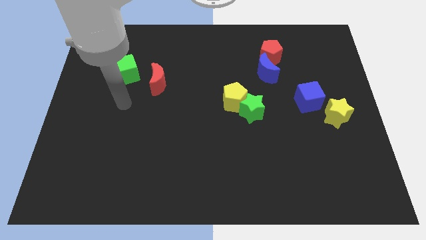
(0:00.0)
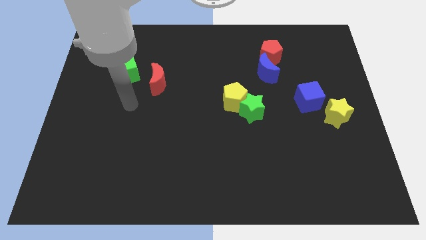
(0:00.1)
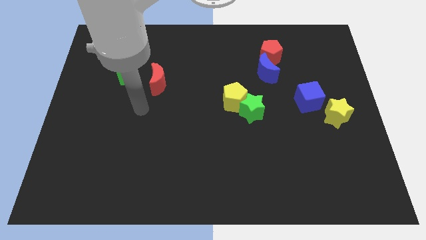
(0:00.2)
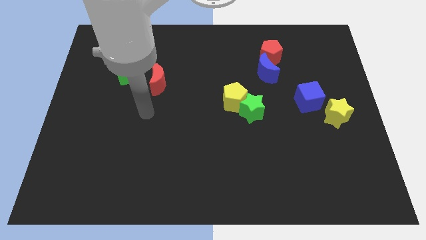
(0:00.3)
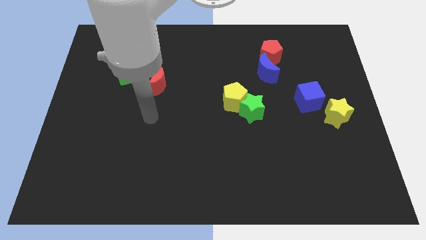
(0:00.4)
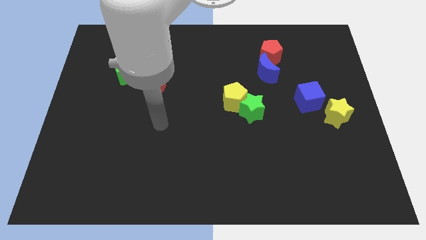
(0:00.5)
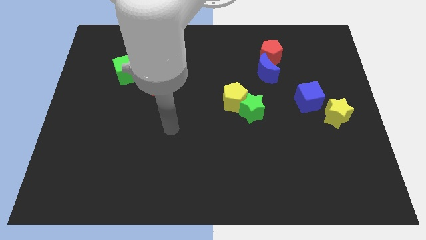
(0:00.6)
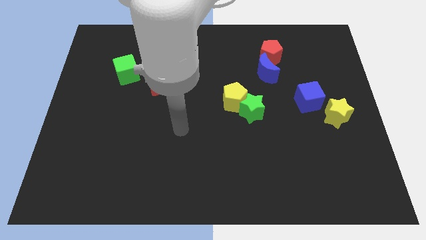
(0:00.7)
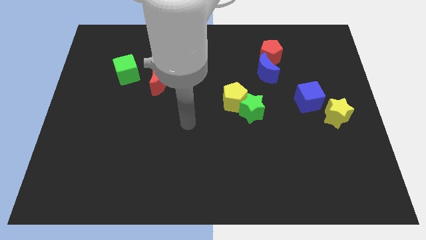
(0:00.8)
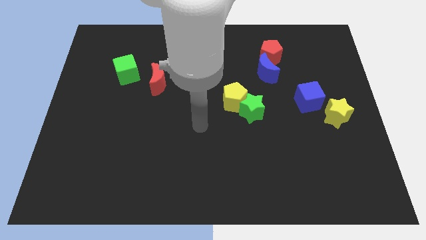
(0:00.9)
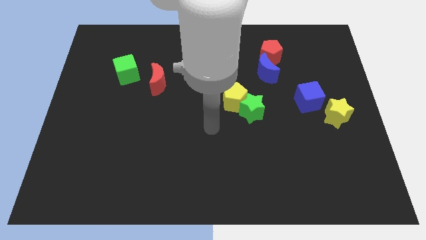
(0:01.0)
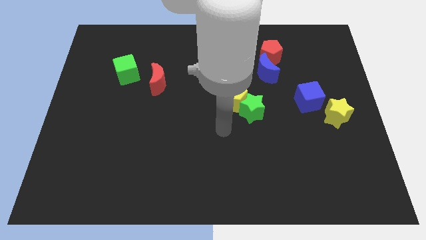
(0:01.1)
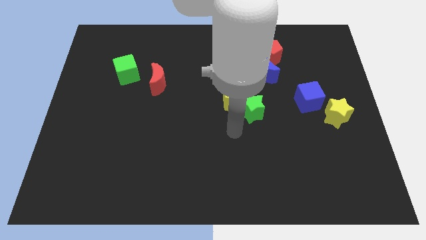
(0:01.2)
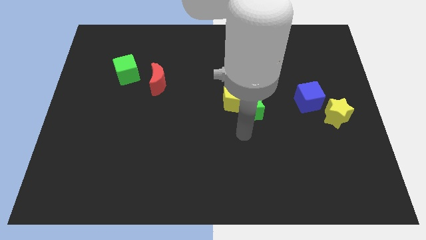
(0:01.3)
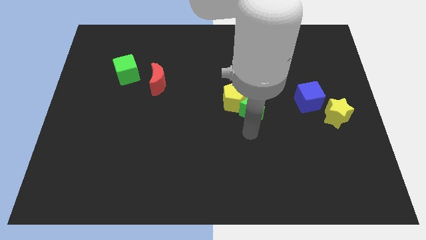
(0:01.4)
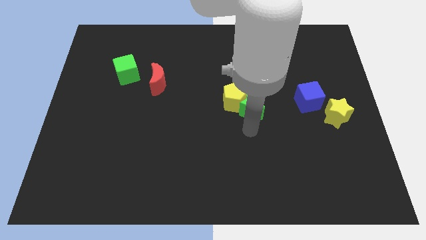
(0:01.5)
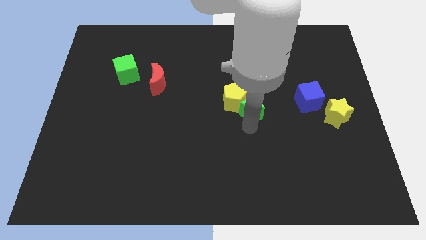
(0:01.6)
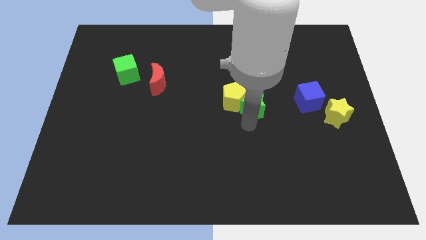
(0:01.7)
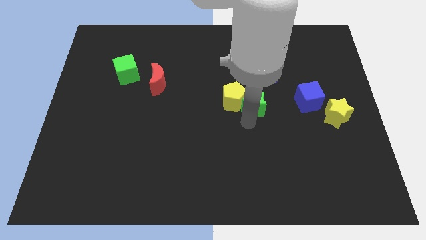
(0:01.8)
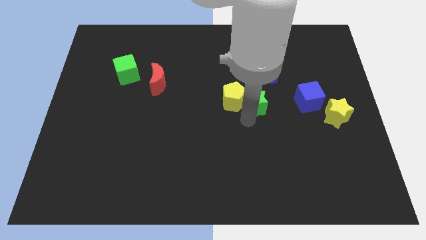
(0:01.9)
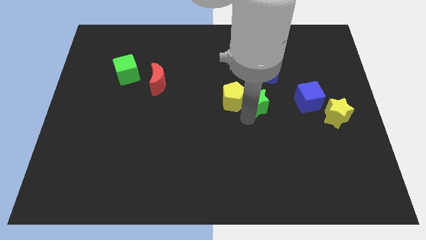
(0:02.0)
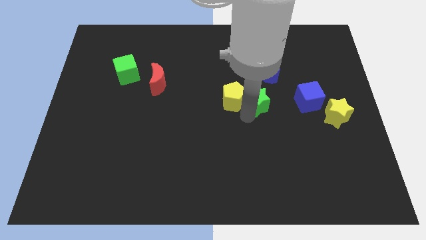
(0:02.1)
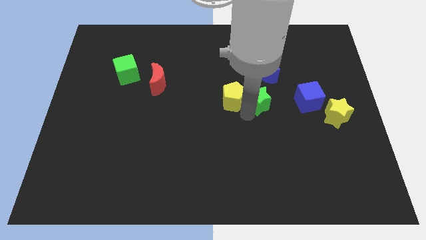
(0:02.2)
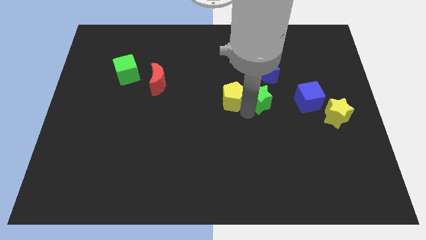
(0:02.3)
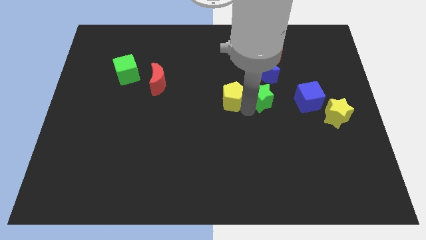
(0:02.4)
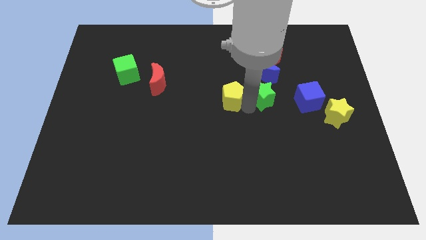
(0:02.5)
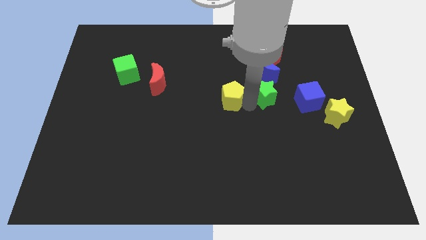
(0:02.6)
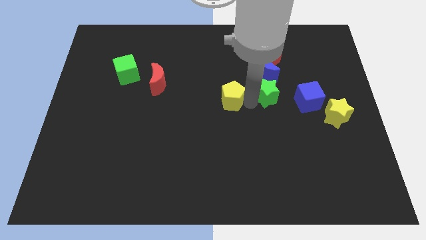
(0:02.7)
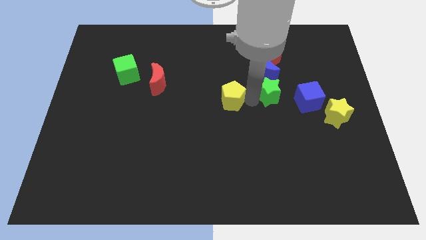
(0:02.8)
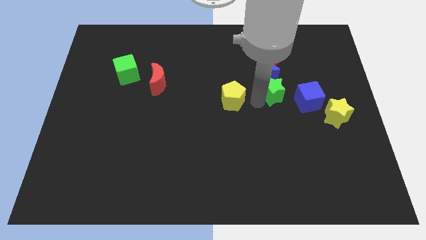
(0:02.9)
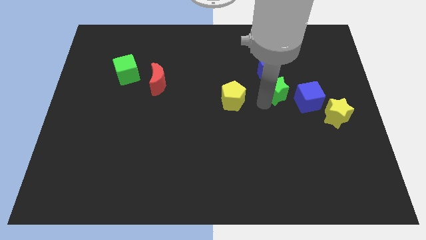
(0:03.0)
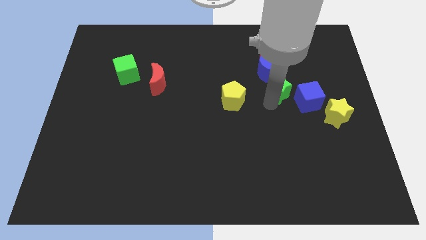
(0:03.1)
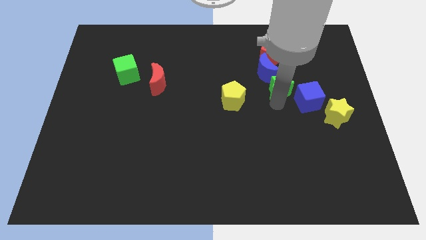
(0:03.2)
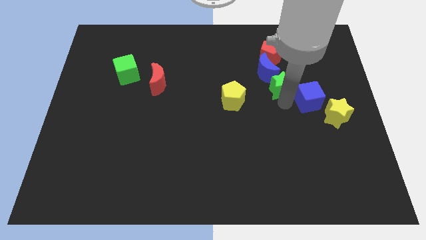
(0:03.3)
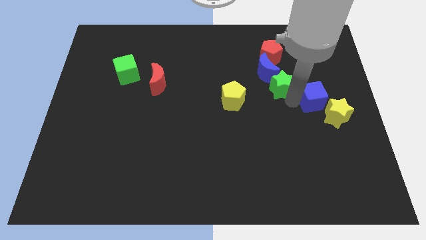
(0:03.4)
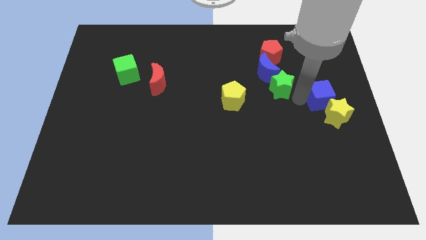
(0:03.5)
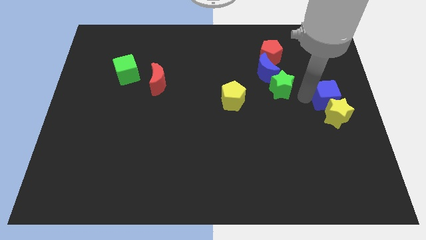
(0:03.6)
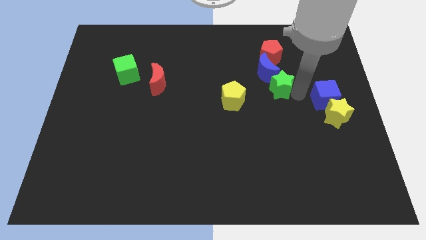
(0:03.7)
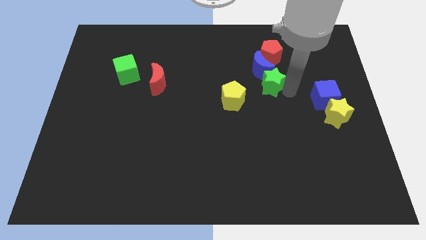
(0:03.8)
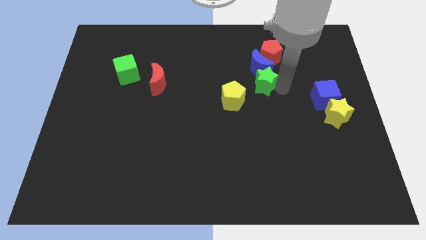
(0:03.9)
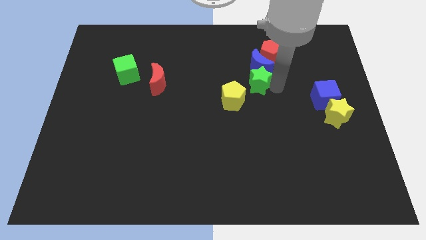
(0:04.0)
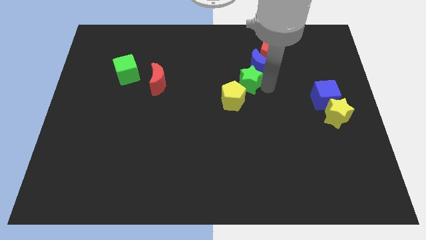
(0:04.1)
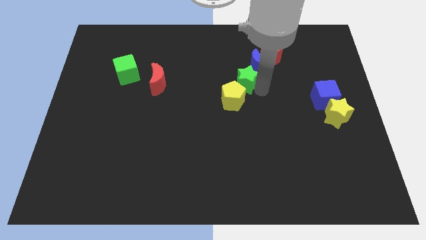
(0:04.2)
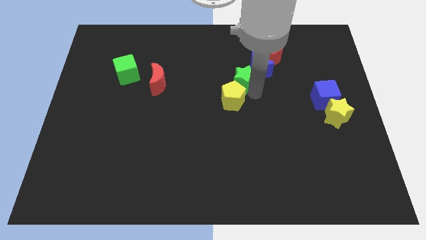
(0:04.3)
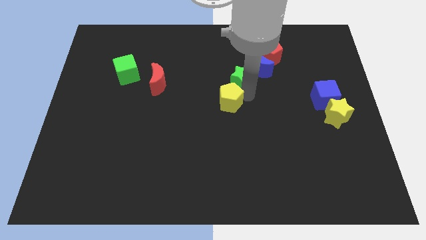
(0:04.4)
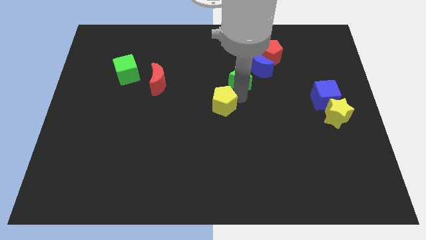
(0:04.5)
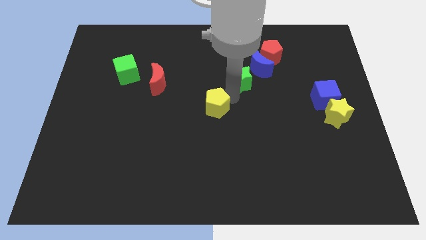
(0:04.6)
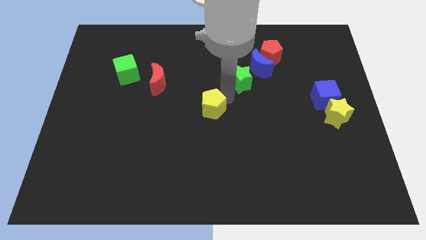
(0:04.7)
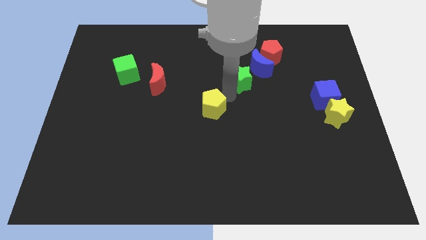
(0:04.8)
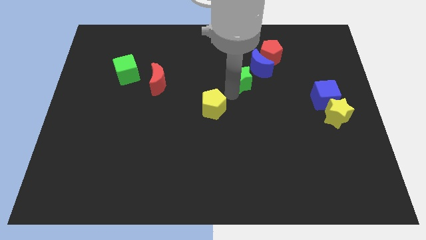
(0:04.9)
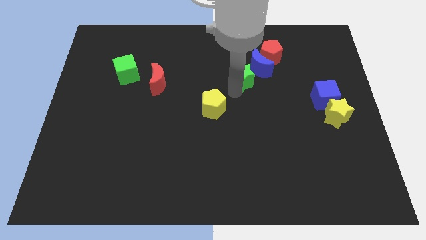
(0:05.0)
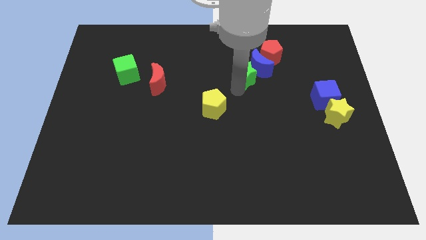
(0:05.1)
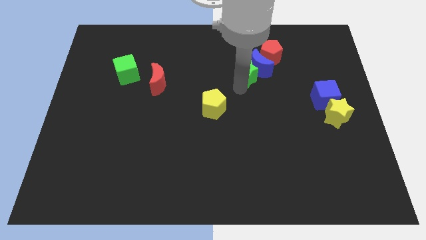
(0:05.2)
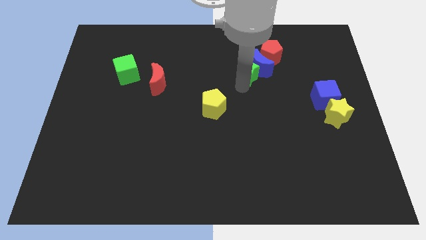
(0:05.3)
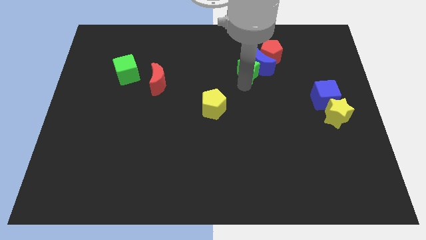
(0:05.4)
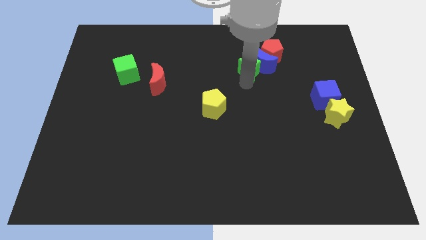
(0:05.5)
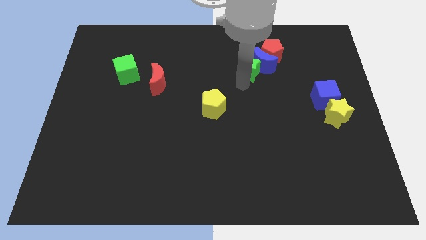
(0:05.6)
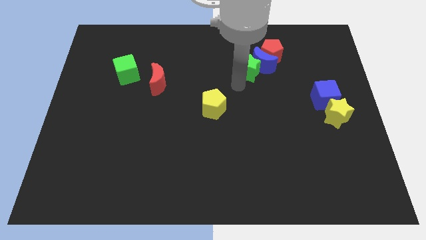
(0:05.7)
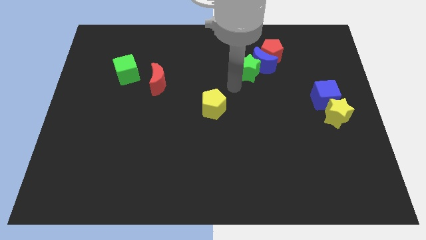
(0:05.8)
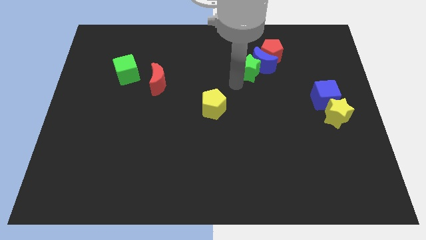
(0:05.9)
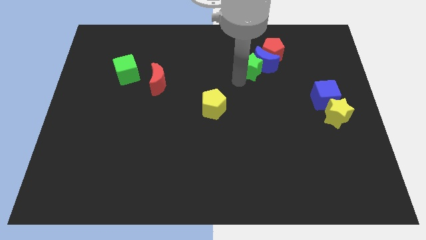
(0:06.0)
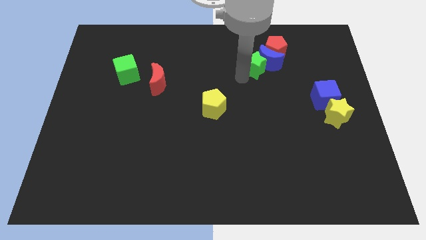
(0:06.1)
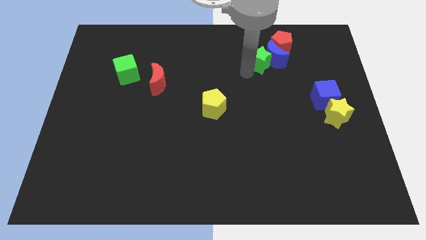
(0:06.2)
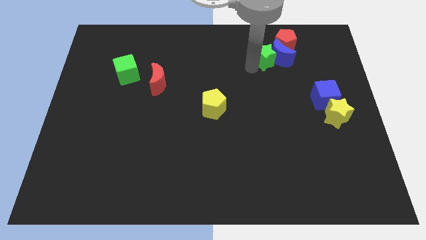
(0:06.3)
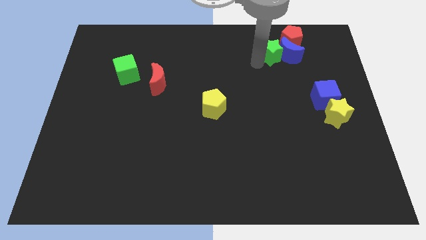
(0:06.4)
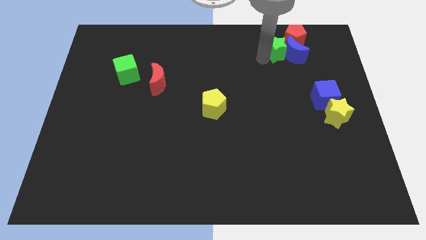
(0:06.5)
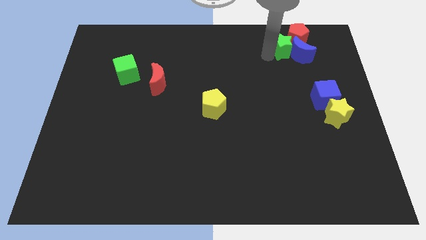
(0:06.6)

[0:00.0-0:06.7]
move the green star next to the red pentagon
